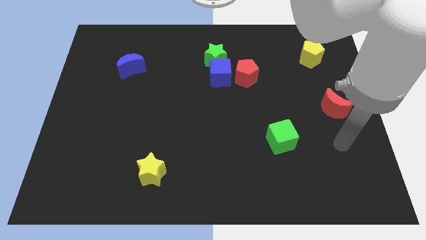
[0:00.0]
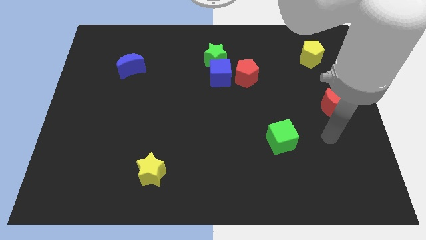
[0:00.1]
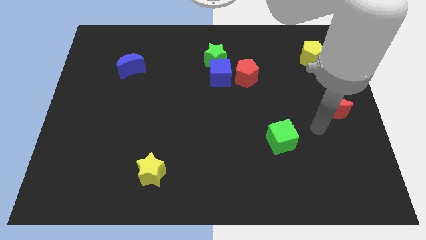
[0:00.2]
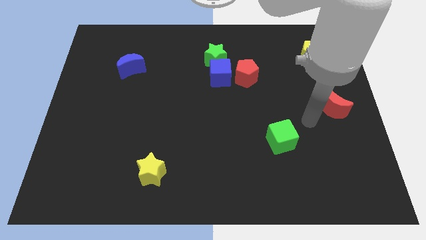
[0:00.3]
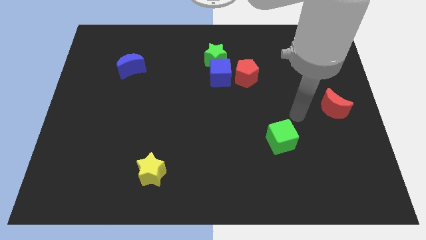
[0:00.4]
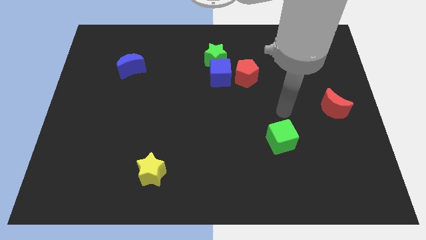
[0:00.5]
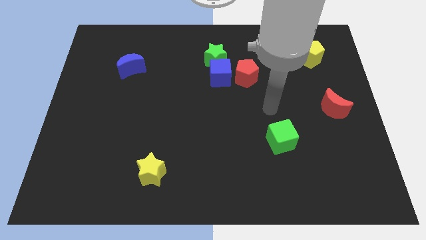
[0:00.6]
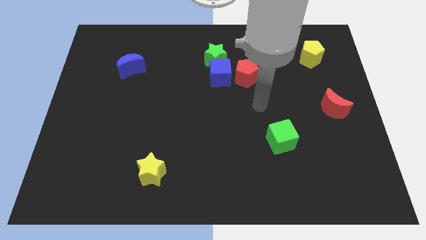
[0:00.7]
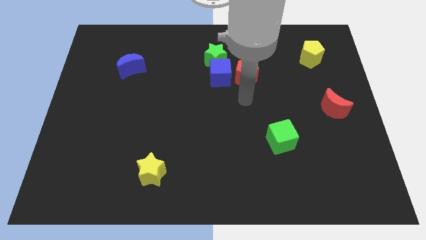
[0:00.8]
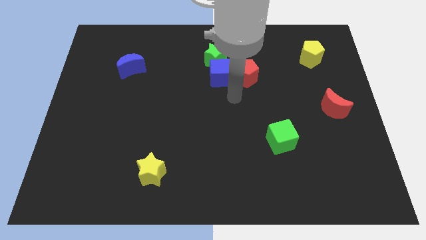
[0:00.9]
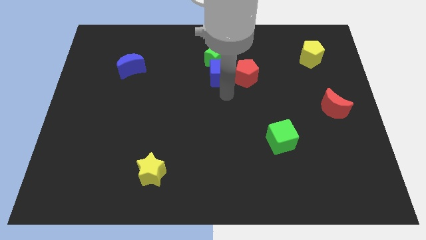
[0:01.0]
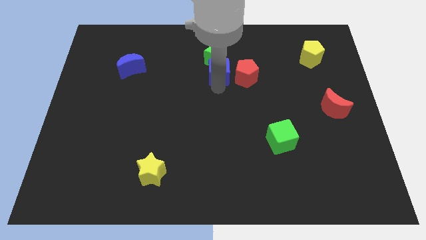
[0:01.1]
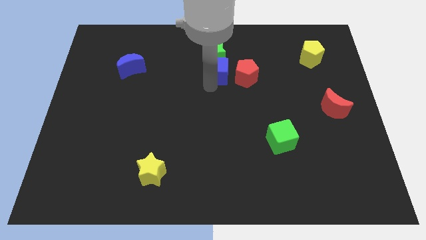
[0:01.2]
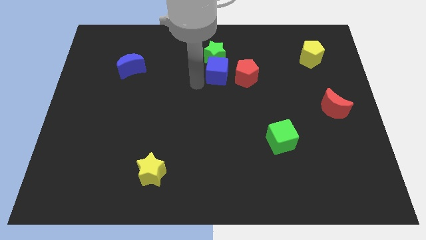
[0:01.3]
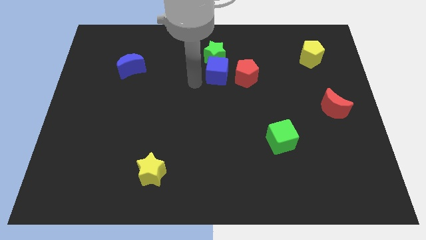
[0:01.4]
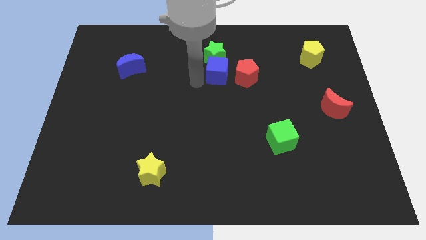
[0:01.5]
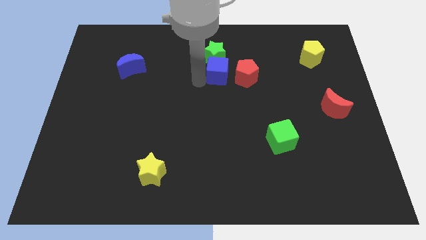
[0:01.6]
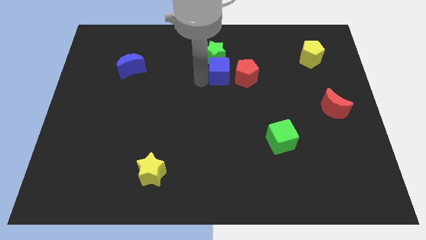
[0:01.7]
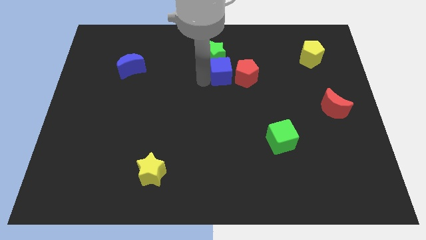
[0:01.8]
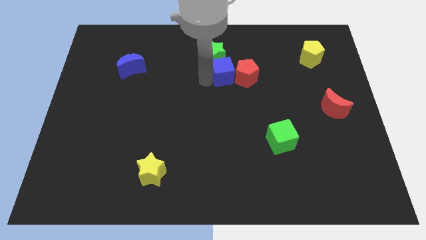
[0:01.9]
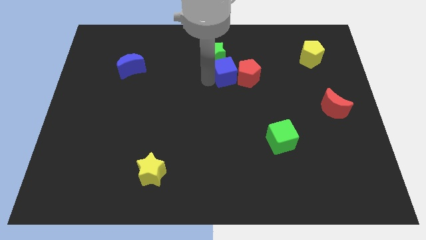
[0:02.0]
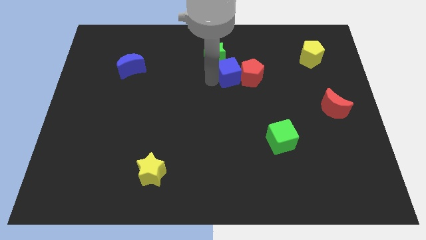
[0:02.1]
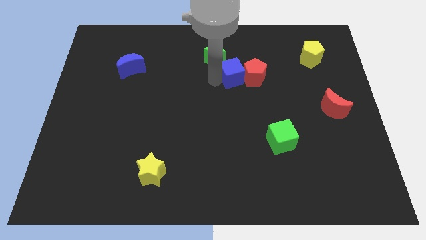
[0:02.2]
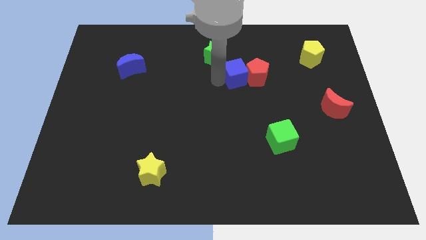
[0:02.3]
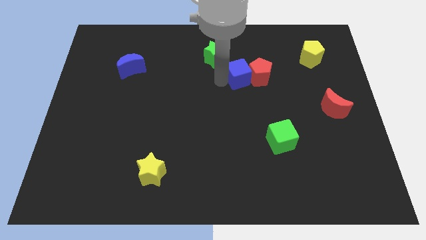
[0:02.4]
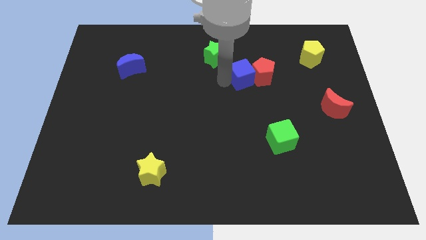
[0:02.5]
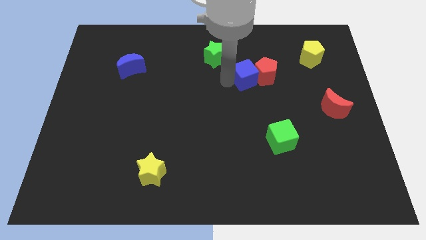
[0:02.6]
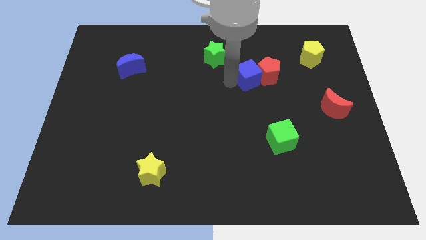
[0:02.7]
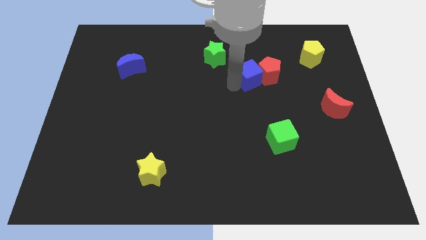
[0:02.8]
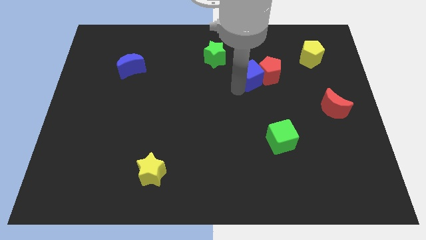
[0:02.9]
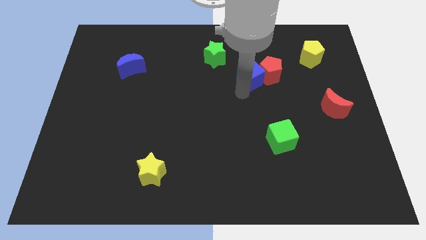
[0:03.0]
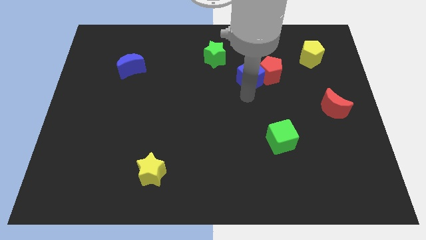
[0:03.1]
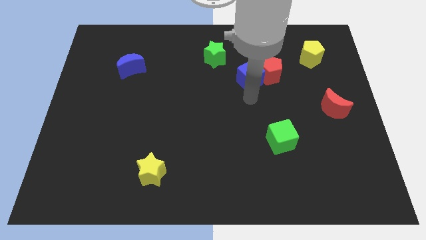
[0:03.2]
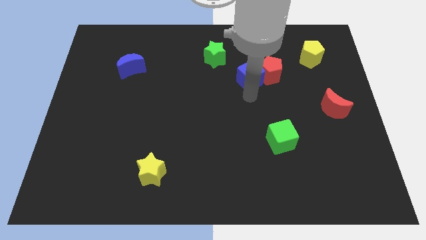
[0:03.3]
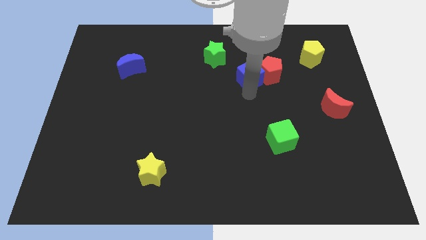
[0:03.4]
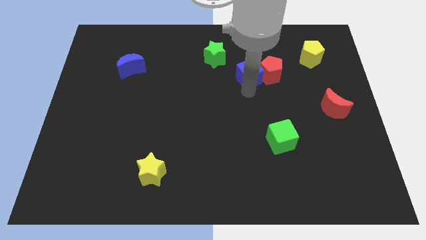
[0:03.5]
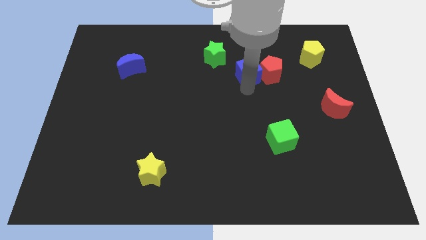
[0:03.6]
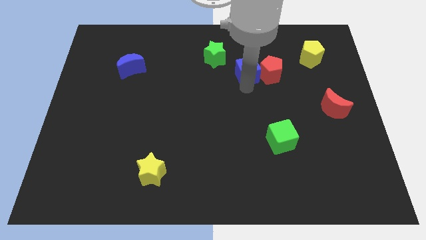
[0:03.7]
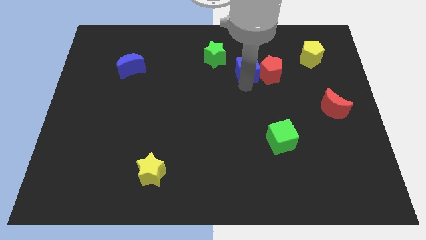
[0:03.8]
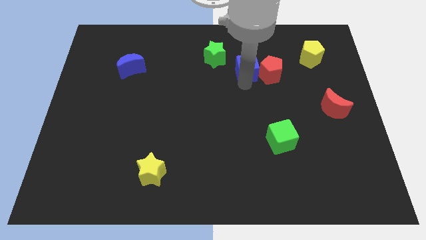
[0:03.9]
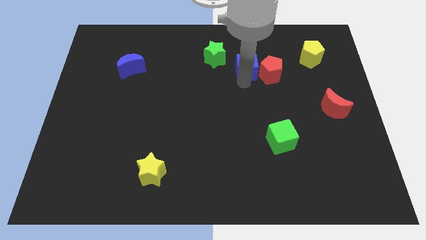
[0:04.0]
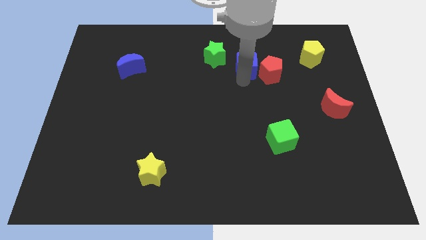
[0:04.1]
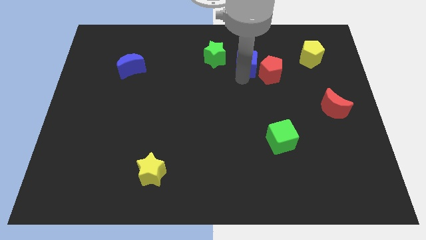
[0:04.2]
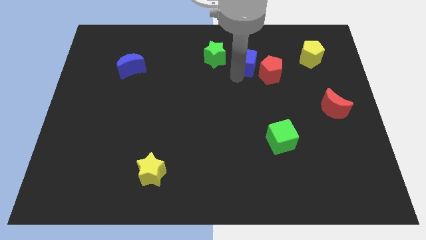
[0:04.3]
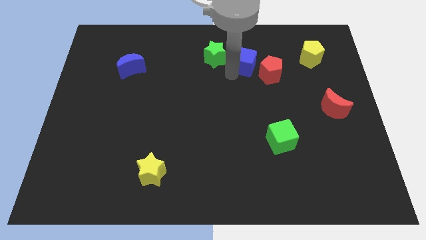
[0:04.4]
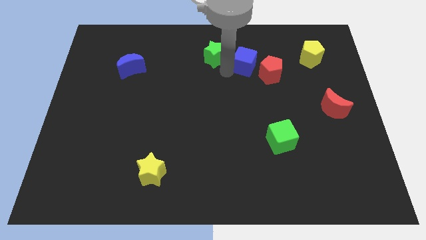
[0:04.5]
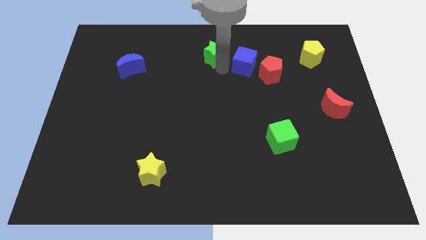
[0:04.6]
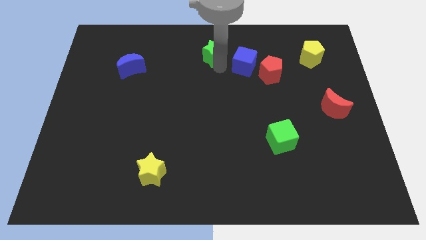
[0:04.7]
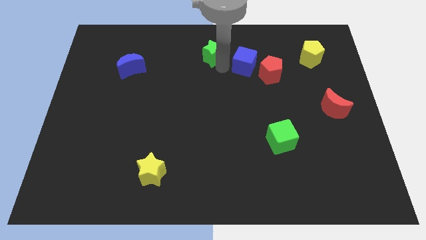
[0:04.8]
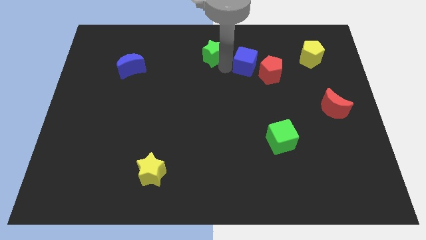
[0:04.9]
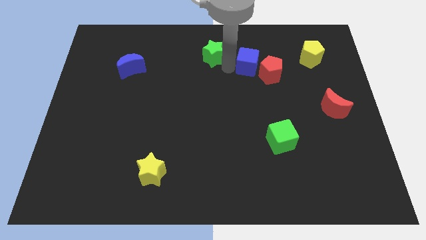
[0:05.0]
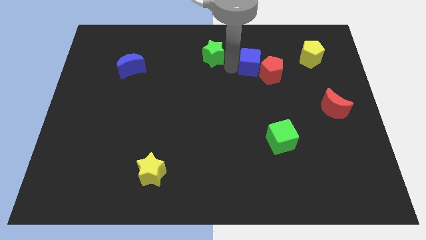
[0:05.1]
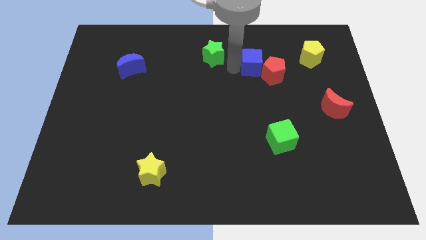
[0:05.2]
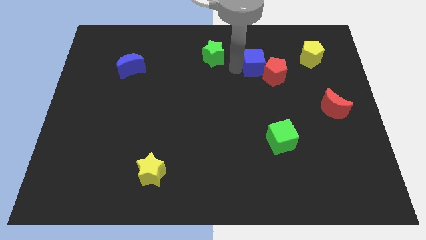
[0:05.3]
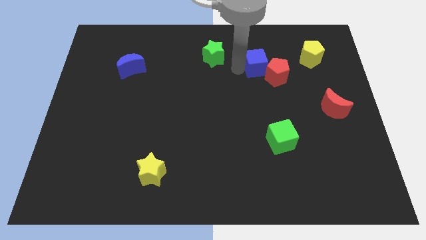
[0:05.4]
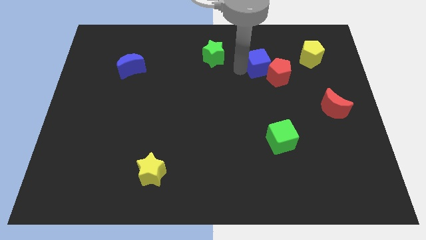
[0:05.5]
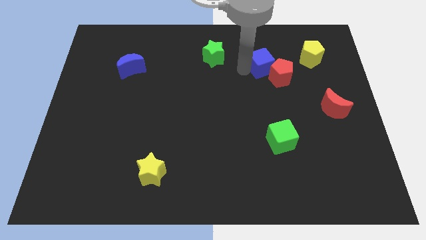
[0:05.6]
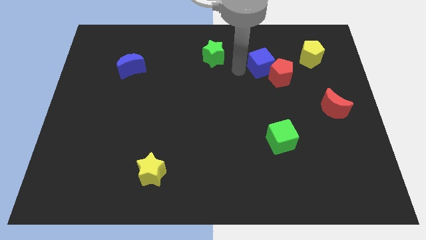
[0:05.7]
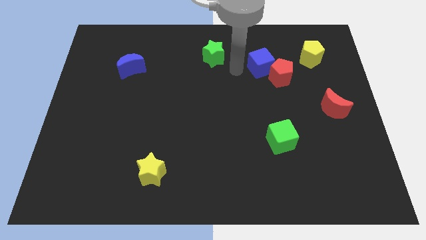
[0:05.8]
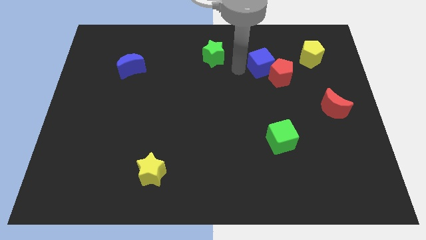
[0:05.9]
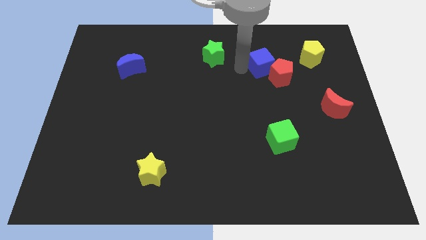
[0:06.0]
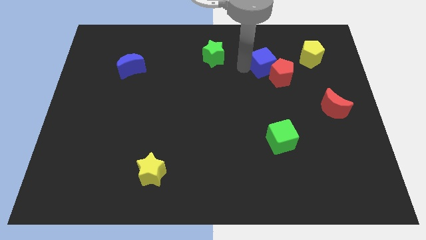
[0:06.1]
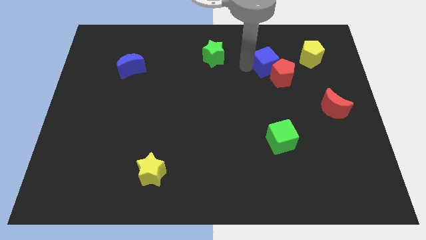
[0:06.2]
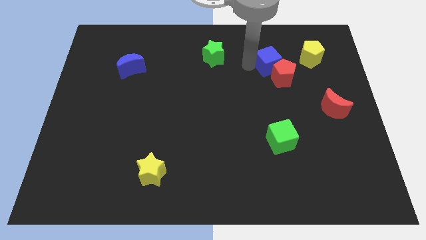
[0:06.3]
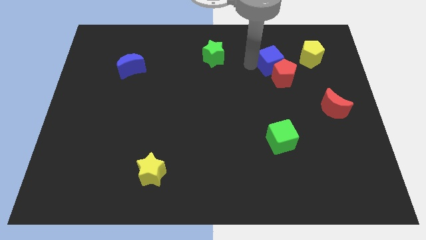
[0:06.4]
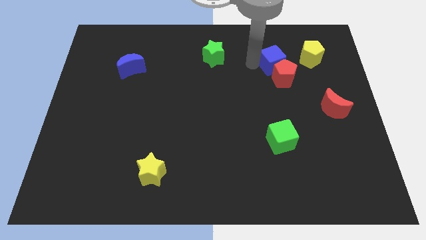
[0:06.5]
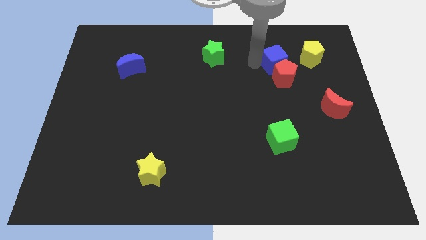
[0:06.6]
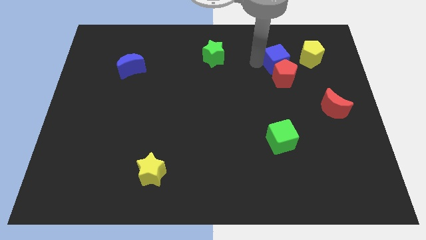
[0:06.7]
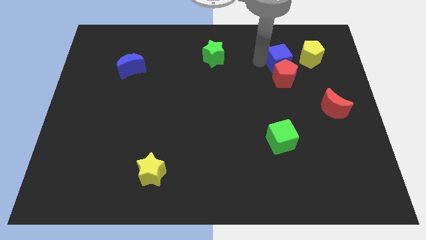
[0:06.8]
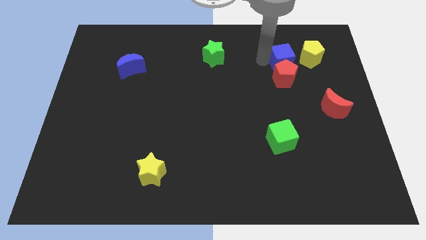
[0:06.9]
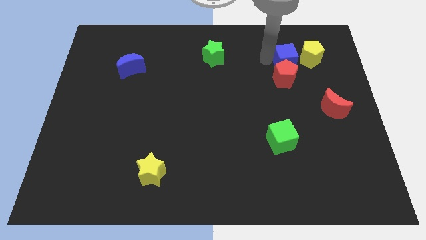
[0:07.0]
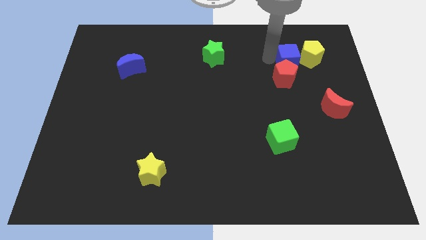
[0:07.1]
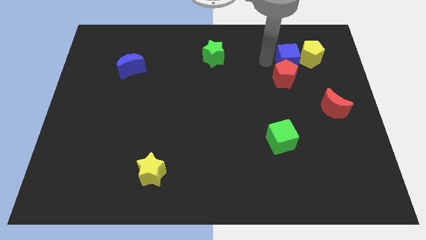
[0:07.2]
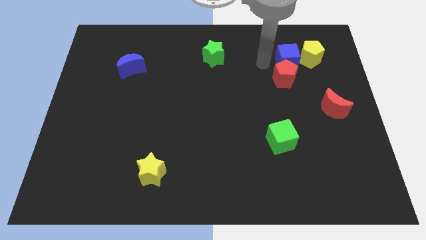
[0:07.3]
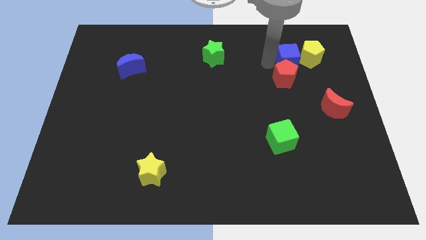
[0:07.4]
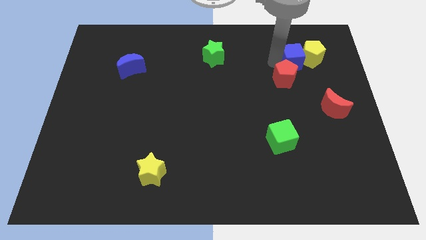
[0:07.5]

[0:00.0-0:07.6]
move the blue cube next to the yellow pentagon

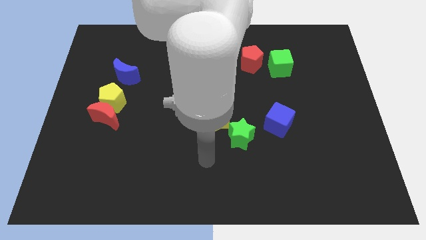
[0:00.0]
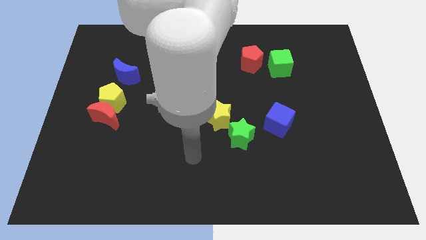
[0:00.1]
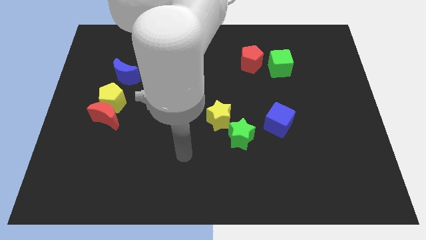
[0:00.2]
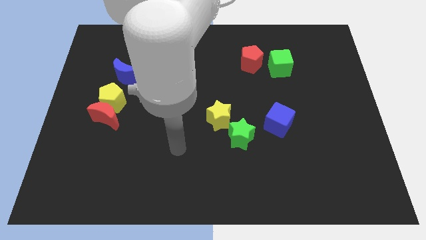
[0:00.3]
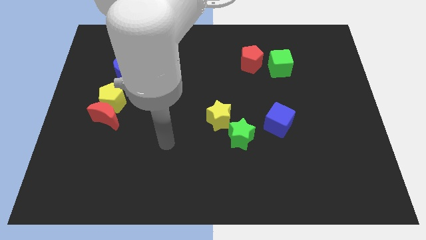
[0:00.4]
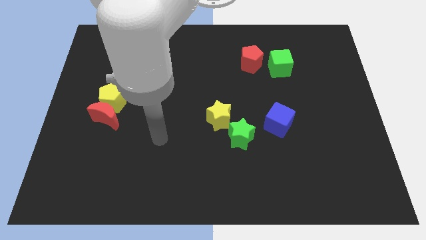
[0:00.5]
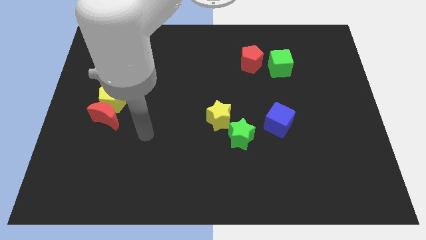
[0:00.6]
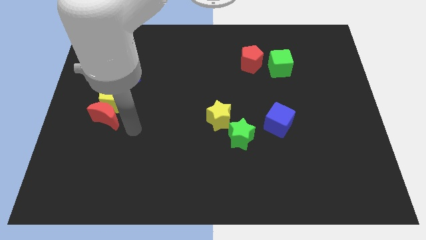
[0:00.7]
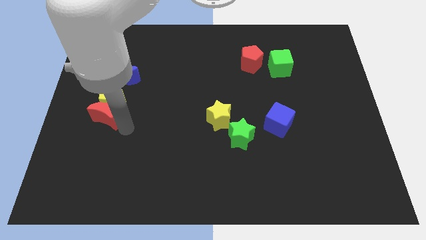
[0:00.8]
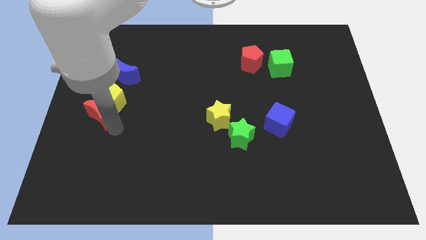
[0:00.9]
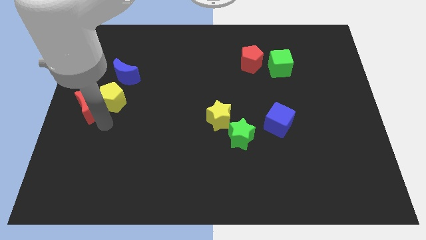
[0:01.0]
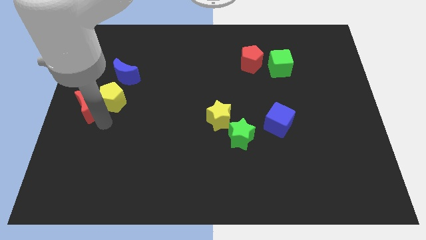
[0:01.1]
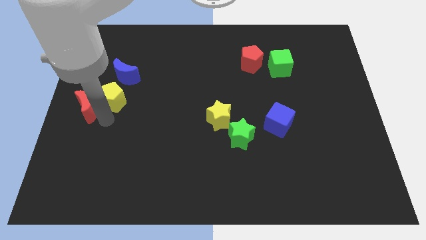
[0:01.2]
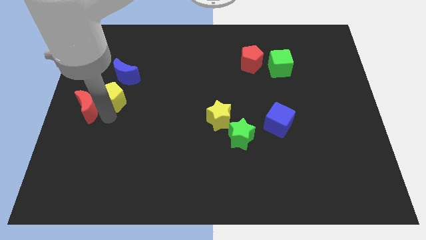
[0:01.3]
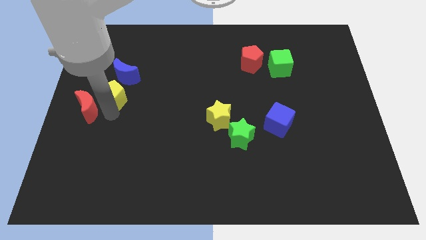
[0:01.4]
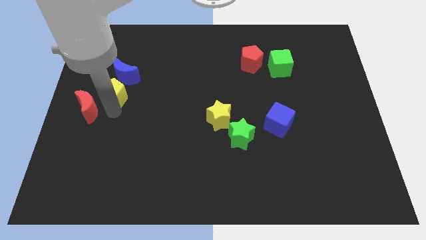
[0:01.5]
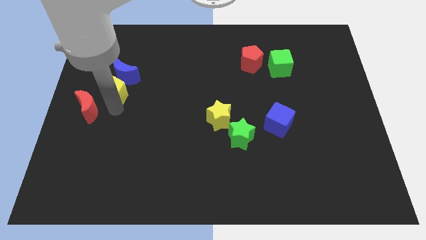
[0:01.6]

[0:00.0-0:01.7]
put the yellow pentagon to the blue moon
